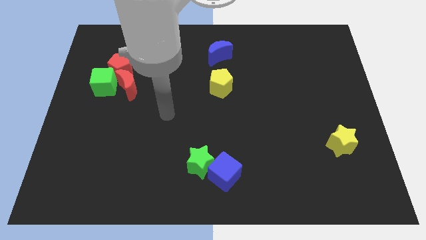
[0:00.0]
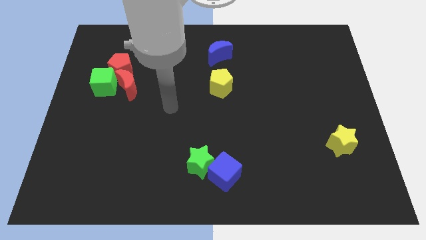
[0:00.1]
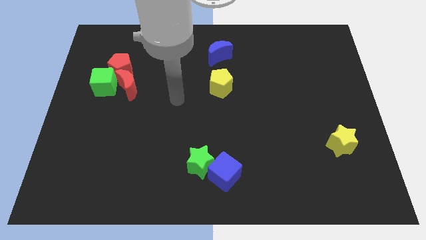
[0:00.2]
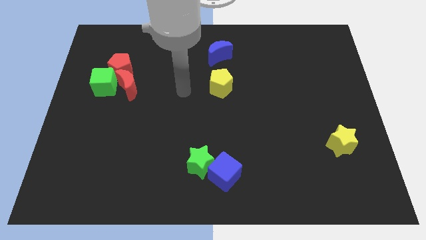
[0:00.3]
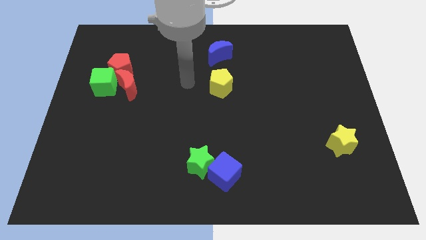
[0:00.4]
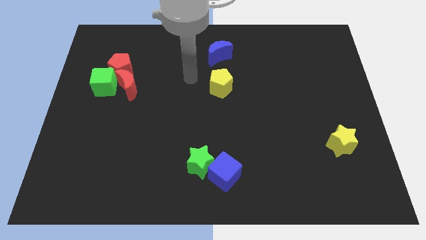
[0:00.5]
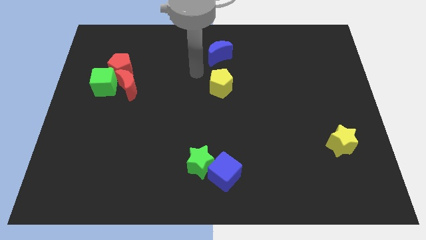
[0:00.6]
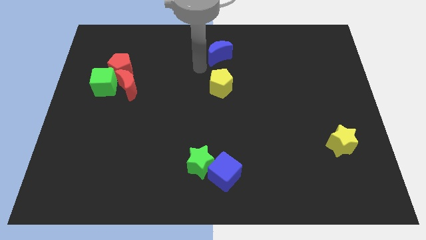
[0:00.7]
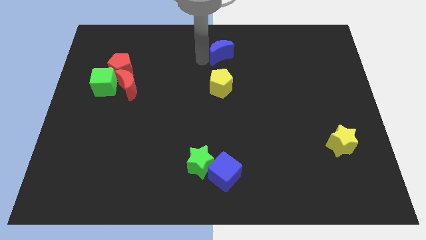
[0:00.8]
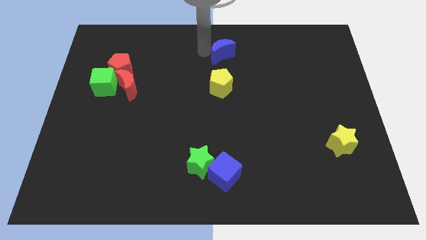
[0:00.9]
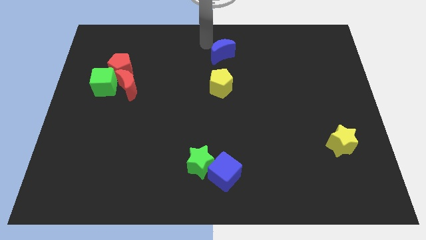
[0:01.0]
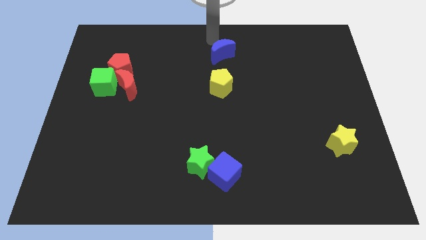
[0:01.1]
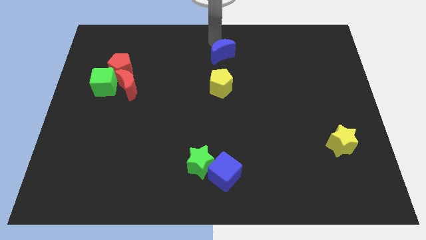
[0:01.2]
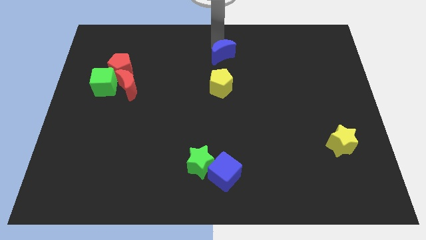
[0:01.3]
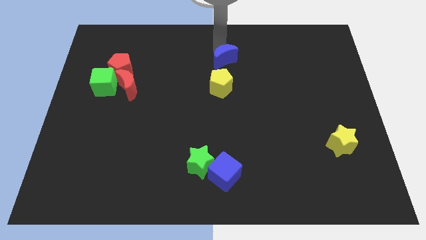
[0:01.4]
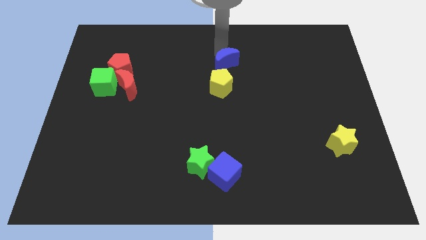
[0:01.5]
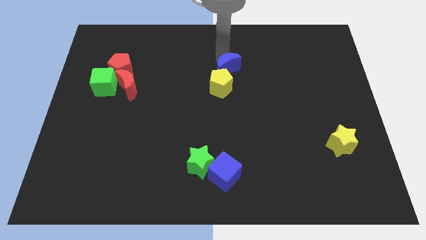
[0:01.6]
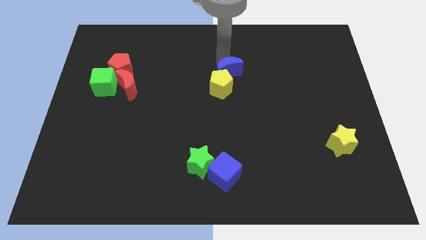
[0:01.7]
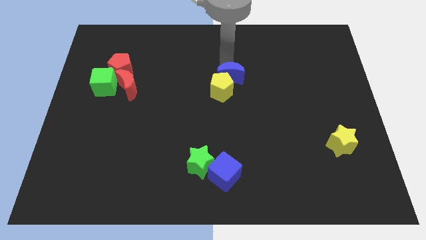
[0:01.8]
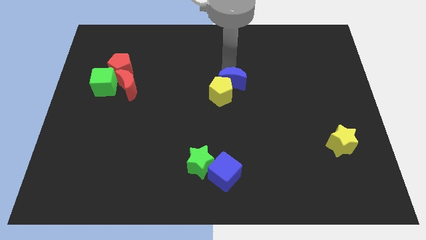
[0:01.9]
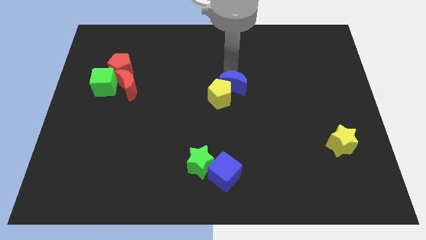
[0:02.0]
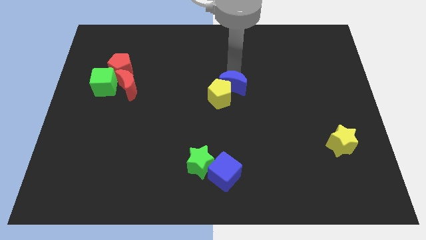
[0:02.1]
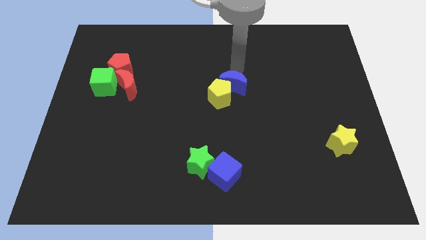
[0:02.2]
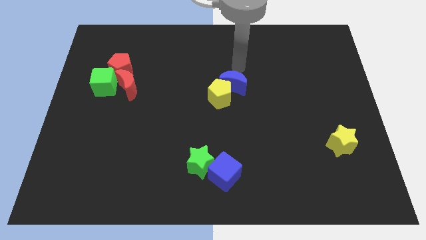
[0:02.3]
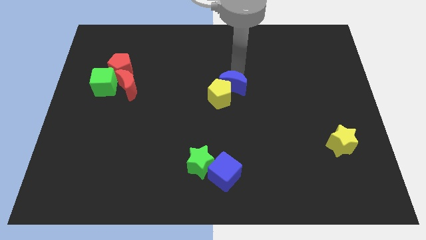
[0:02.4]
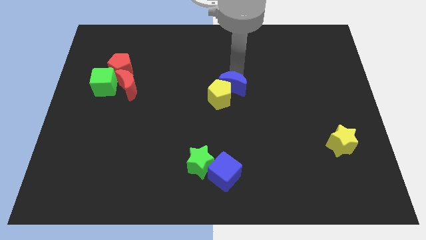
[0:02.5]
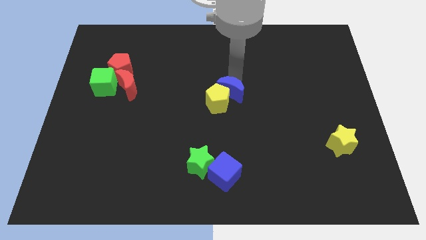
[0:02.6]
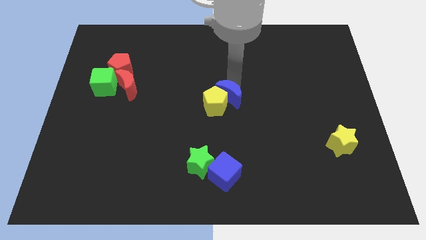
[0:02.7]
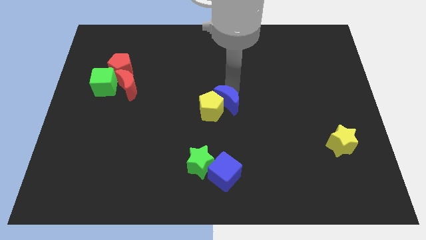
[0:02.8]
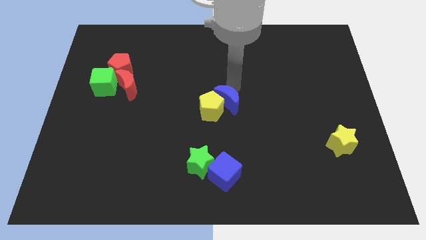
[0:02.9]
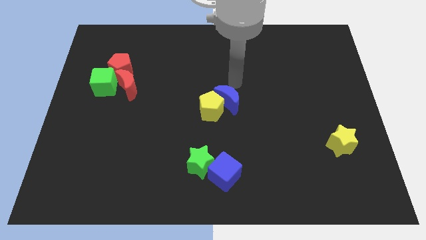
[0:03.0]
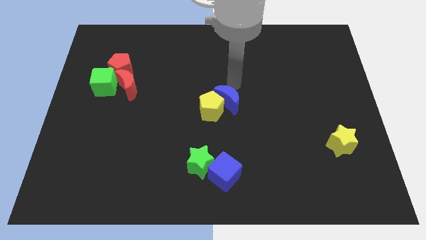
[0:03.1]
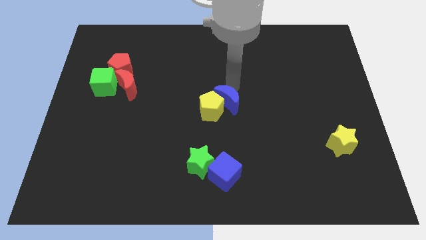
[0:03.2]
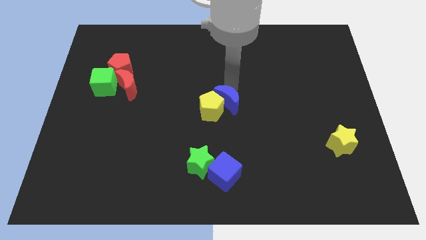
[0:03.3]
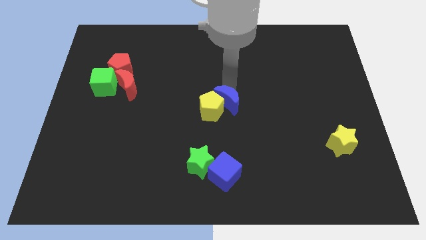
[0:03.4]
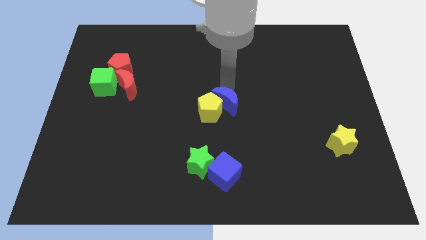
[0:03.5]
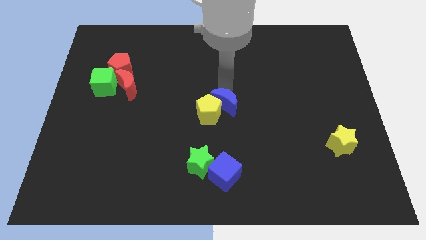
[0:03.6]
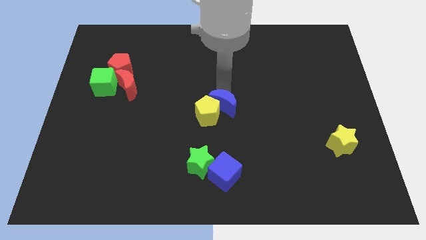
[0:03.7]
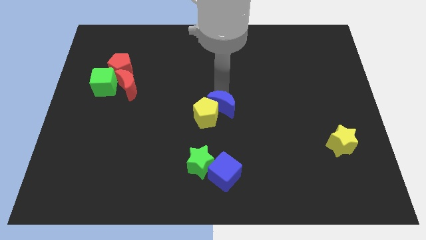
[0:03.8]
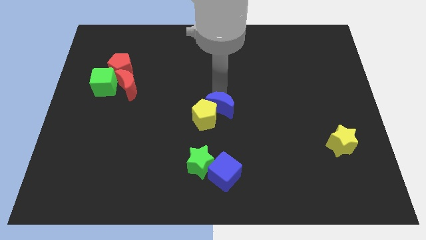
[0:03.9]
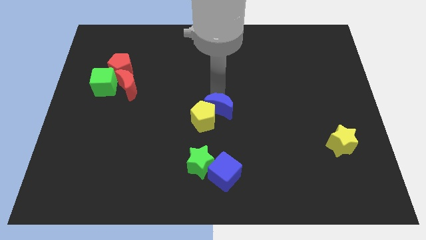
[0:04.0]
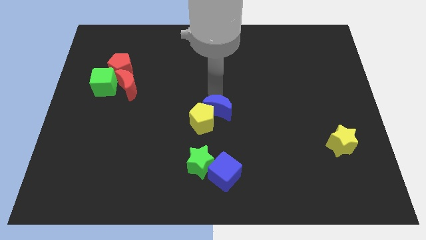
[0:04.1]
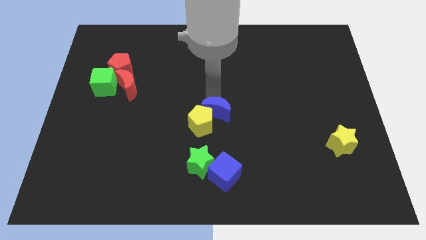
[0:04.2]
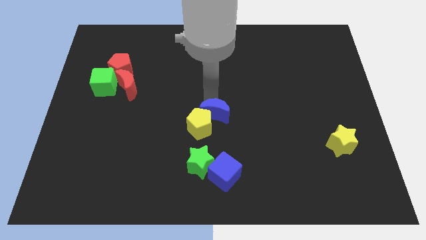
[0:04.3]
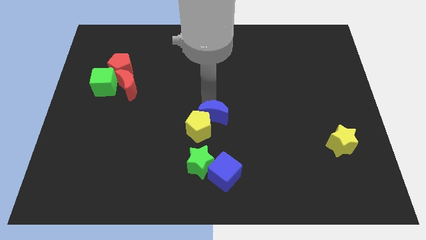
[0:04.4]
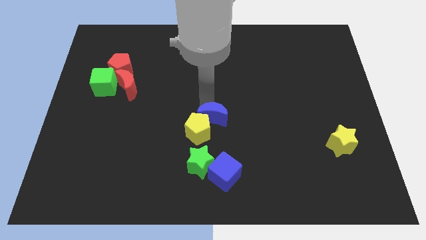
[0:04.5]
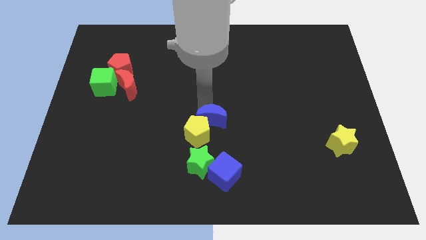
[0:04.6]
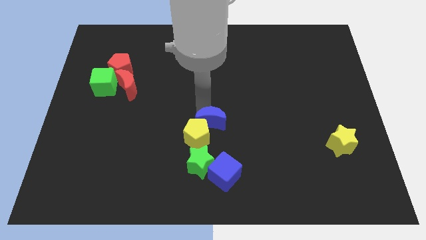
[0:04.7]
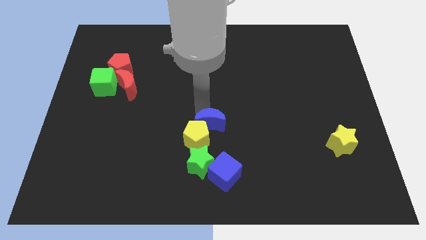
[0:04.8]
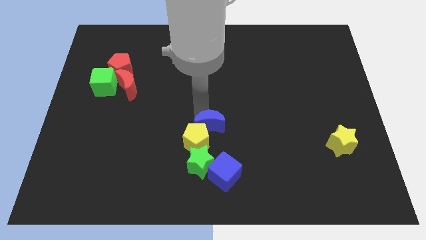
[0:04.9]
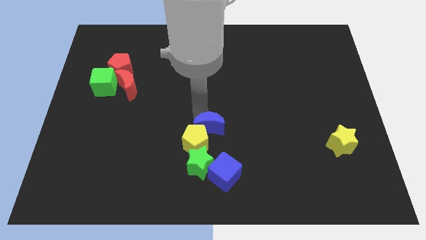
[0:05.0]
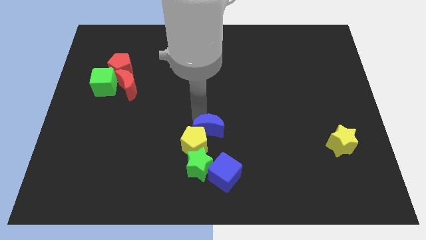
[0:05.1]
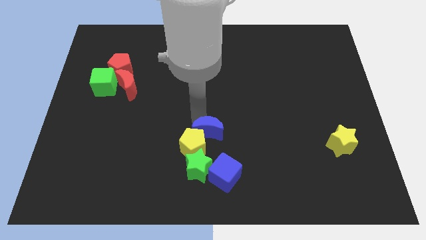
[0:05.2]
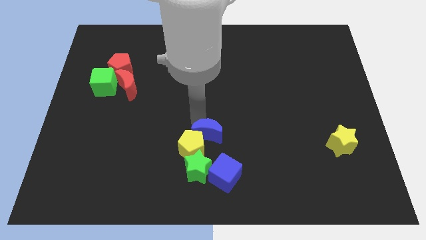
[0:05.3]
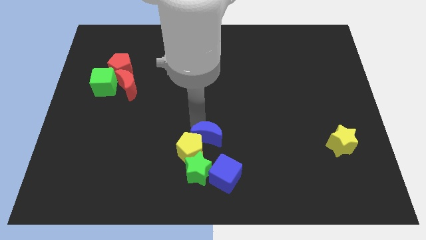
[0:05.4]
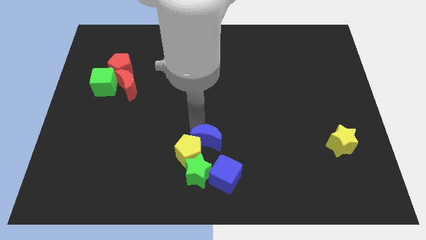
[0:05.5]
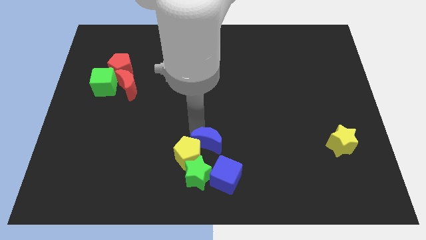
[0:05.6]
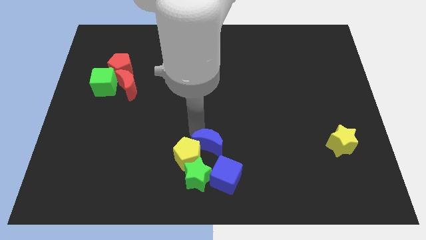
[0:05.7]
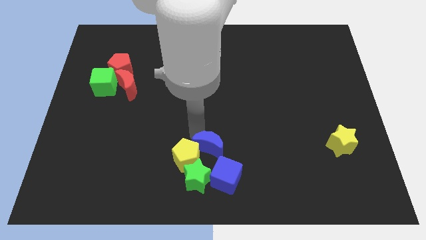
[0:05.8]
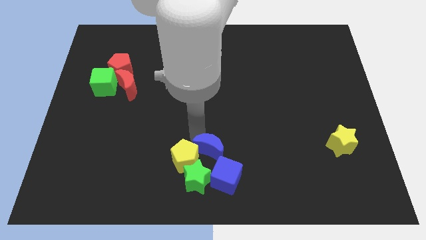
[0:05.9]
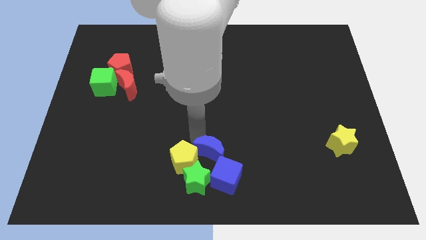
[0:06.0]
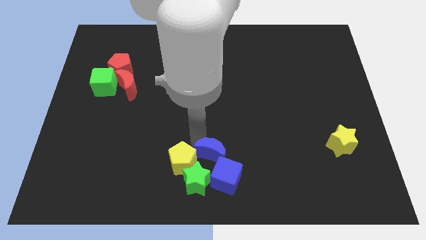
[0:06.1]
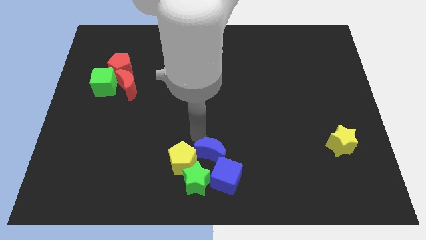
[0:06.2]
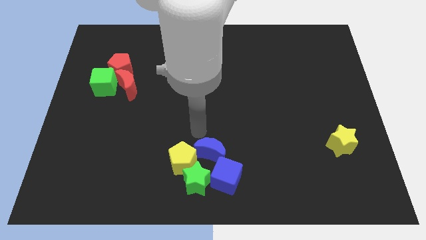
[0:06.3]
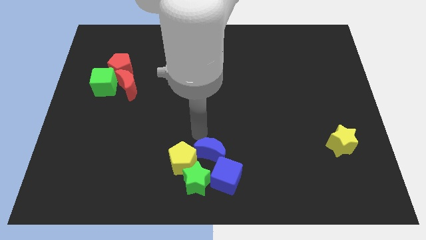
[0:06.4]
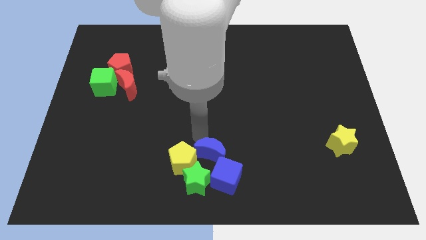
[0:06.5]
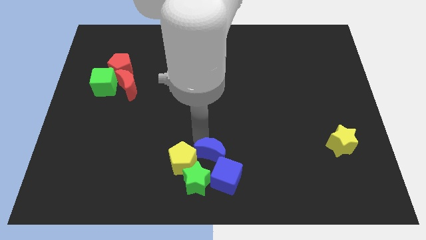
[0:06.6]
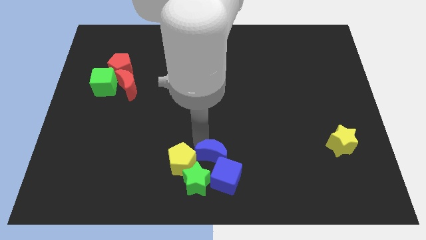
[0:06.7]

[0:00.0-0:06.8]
put the blue moon close to the blue cube

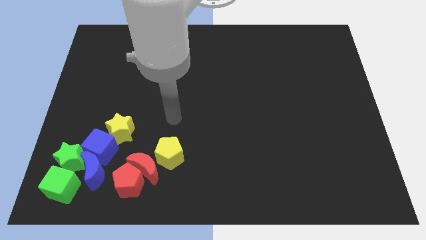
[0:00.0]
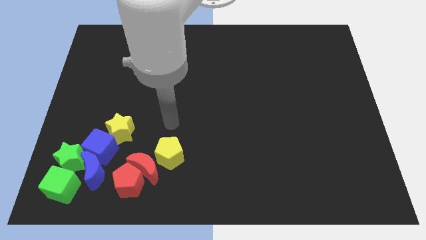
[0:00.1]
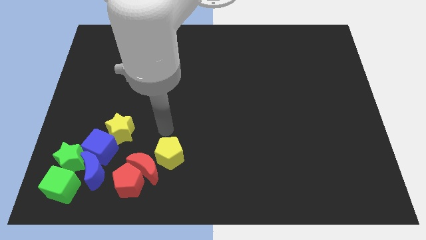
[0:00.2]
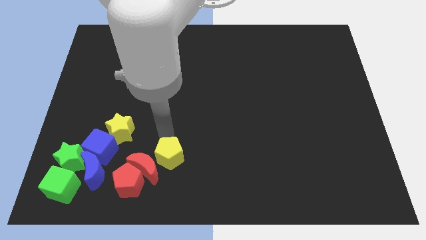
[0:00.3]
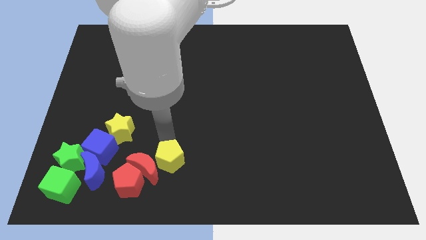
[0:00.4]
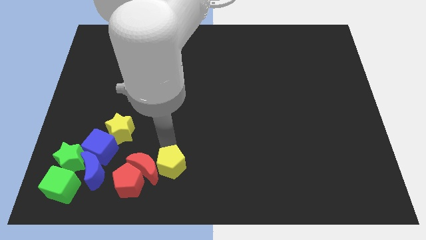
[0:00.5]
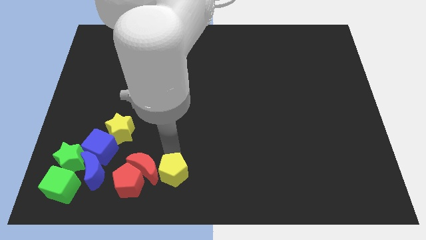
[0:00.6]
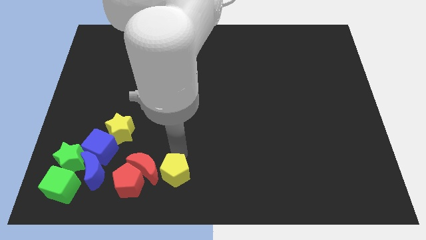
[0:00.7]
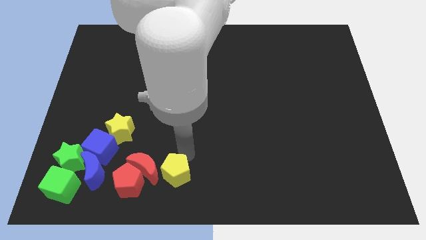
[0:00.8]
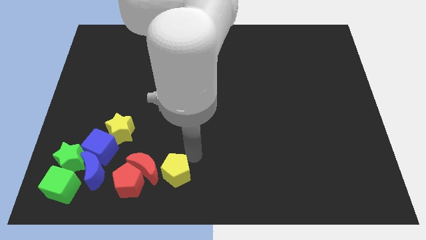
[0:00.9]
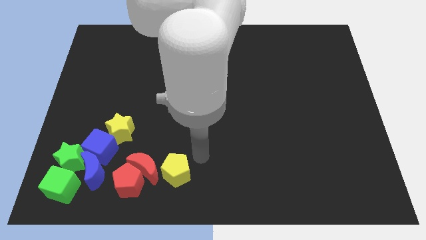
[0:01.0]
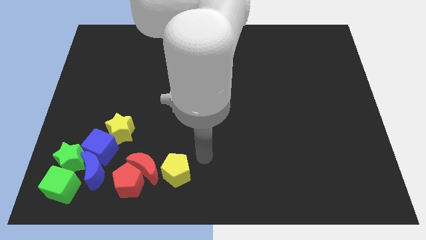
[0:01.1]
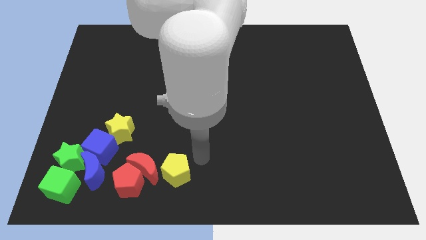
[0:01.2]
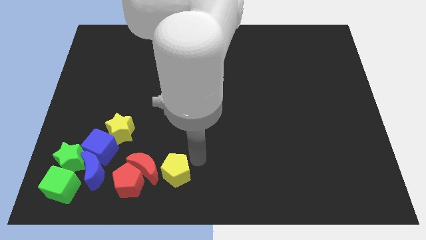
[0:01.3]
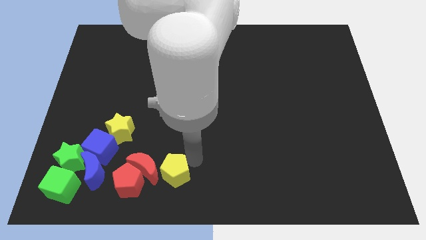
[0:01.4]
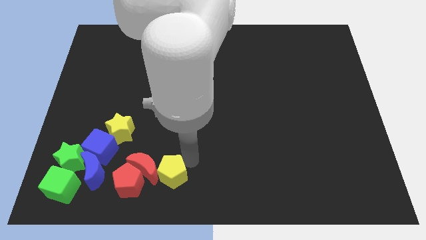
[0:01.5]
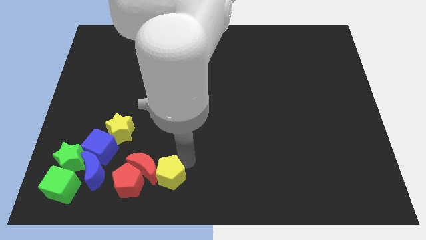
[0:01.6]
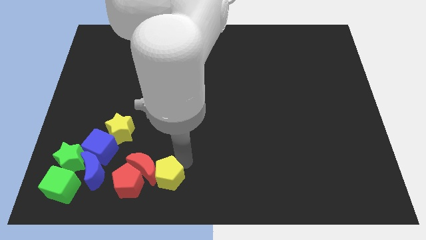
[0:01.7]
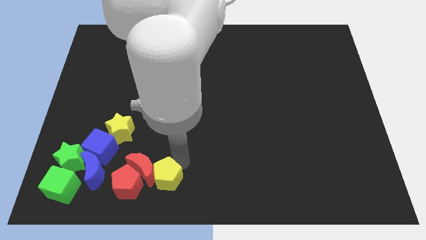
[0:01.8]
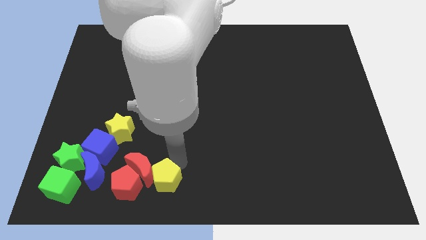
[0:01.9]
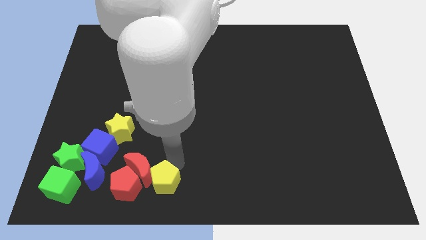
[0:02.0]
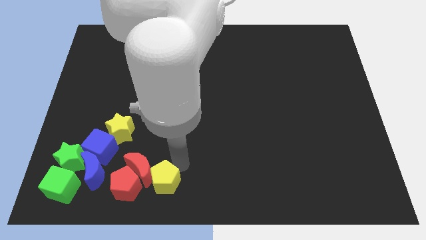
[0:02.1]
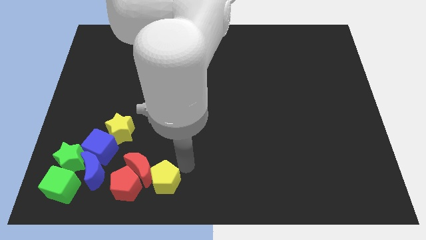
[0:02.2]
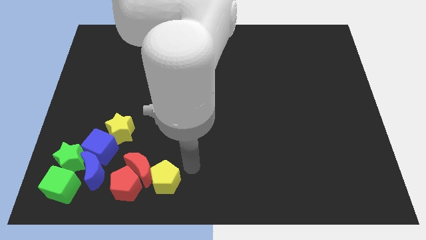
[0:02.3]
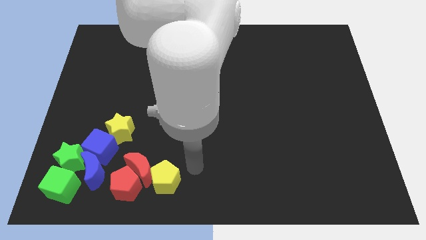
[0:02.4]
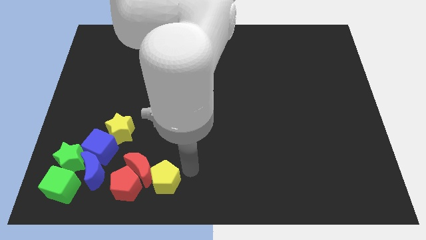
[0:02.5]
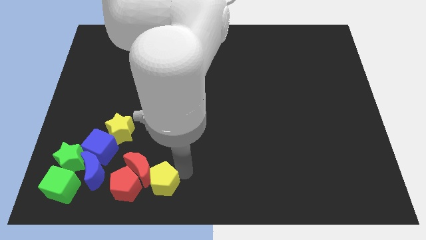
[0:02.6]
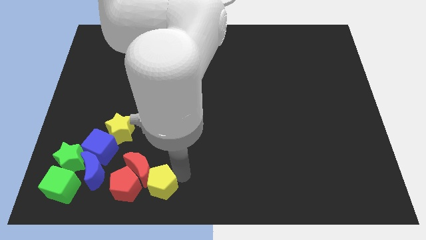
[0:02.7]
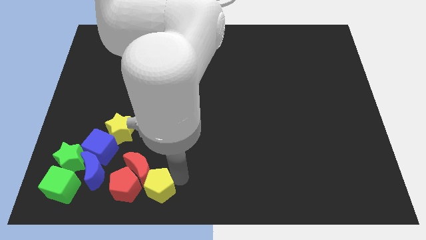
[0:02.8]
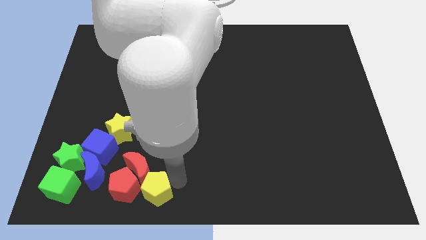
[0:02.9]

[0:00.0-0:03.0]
move the yellow pentagon towards the red pentagon
